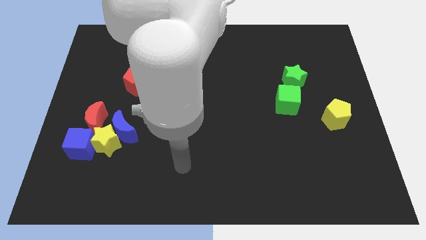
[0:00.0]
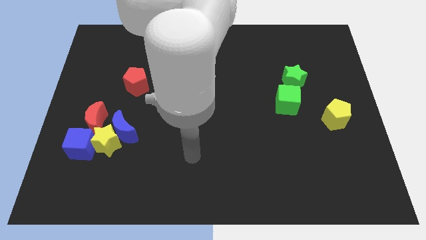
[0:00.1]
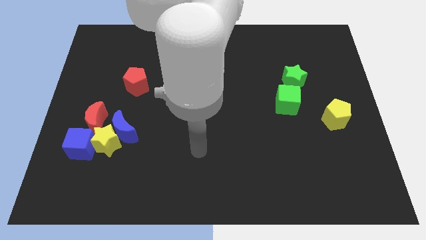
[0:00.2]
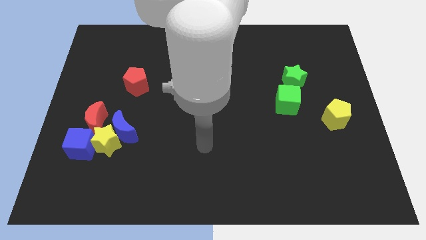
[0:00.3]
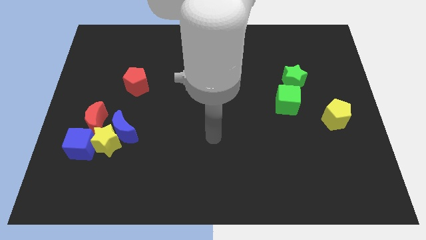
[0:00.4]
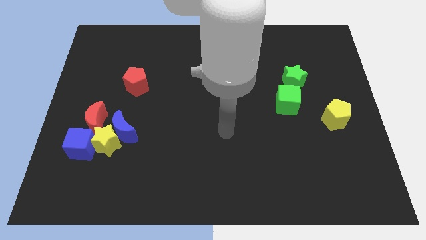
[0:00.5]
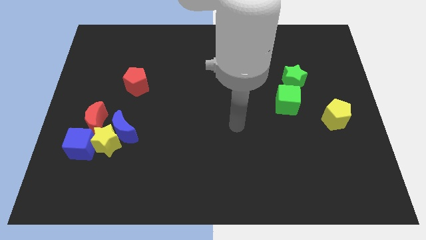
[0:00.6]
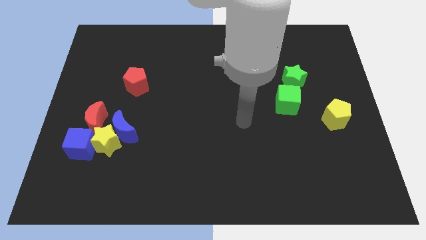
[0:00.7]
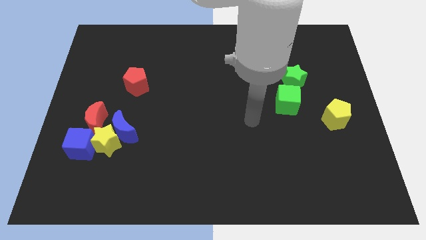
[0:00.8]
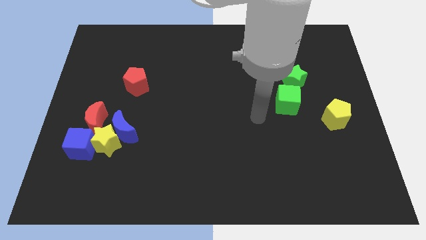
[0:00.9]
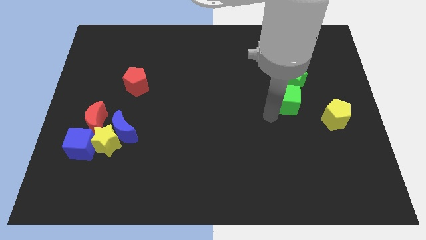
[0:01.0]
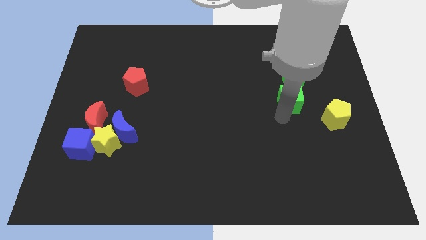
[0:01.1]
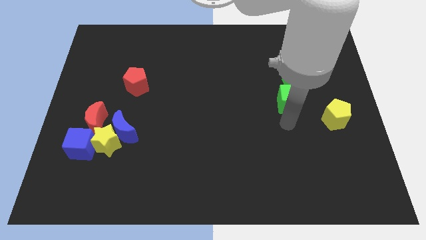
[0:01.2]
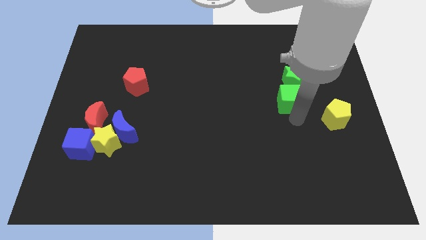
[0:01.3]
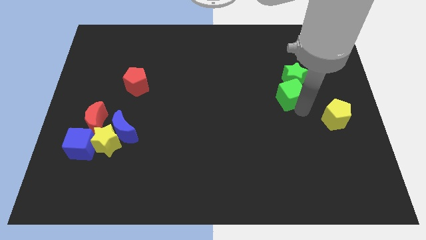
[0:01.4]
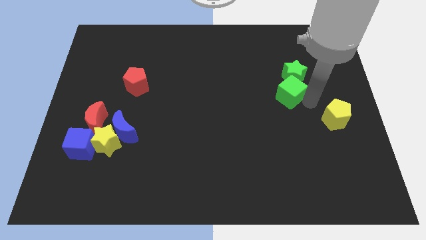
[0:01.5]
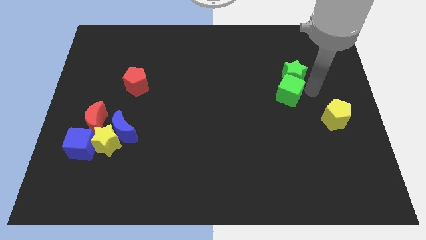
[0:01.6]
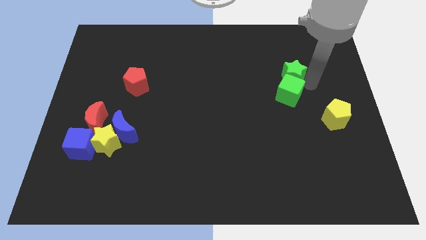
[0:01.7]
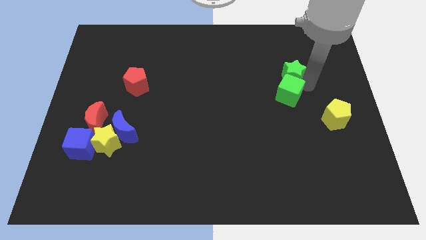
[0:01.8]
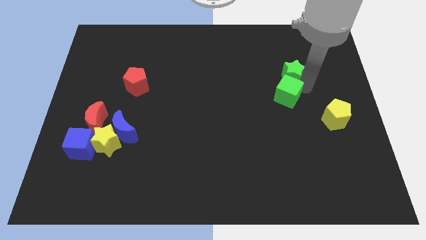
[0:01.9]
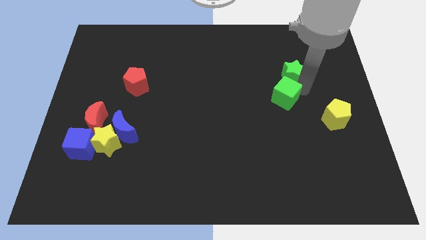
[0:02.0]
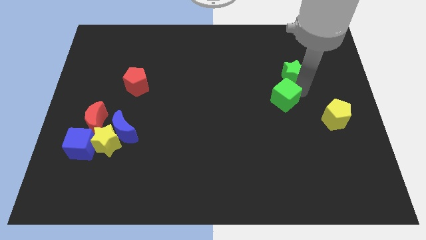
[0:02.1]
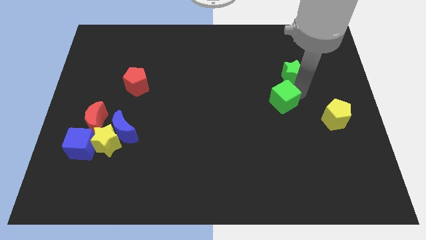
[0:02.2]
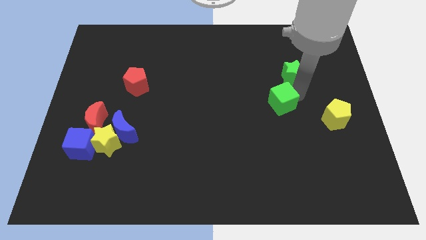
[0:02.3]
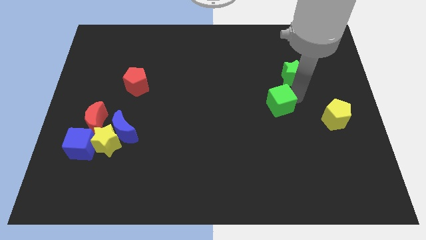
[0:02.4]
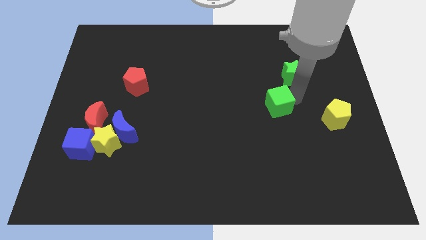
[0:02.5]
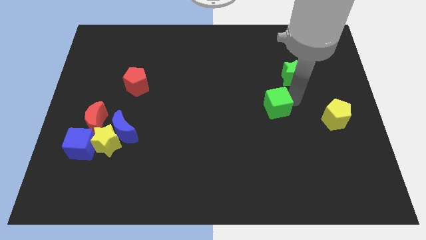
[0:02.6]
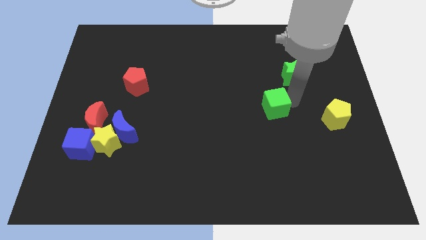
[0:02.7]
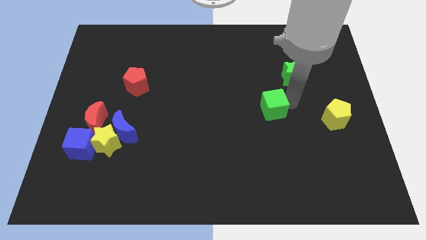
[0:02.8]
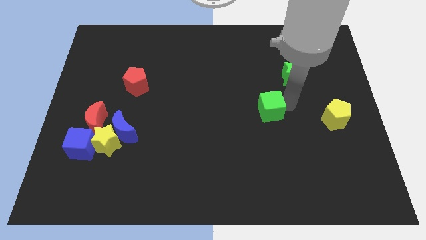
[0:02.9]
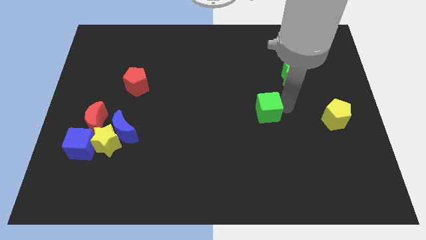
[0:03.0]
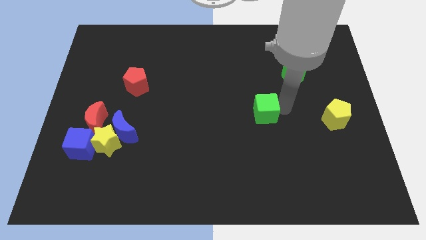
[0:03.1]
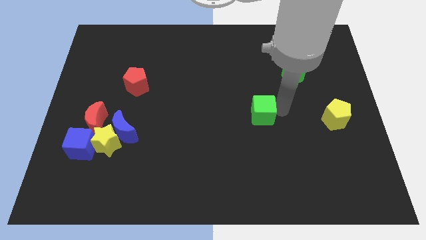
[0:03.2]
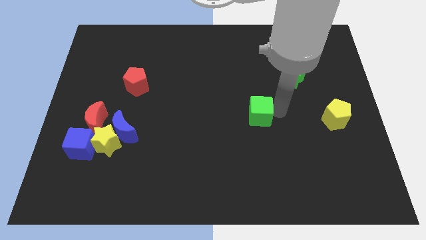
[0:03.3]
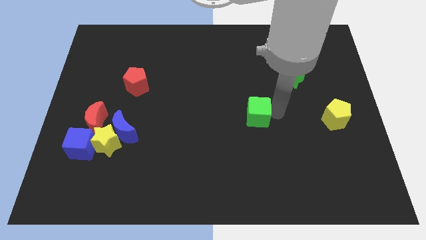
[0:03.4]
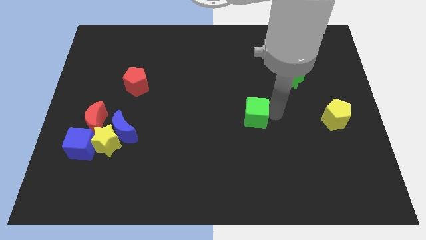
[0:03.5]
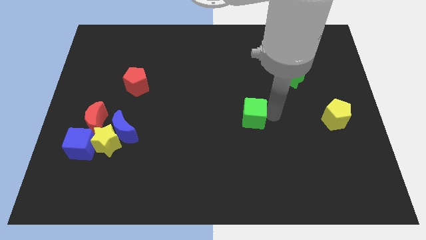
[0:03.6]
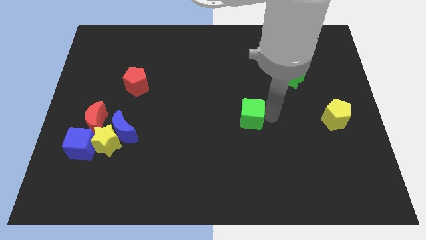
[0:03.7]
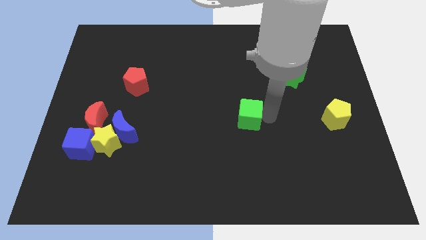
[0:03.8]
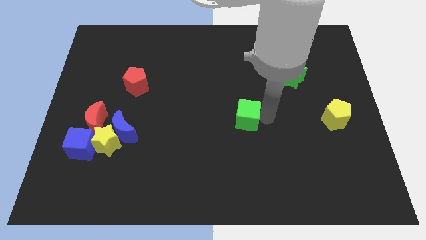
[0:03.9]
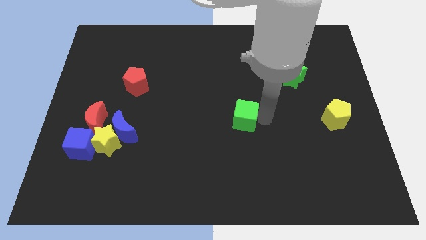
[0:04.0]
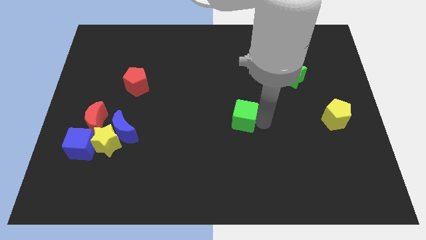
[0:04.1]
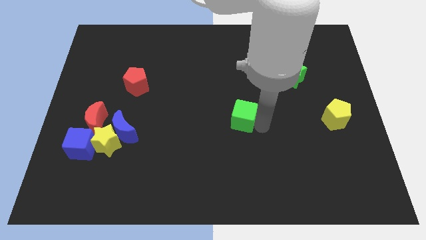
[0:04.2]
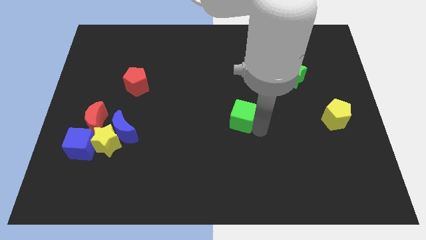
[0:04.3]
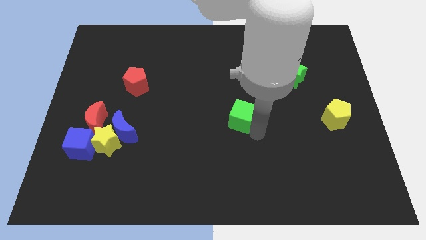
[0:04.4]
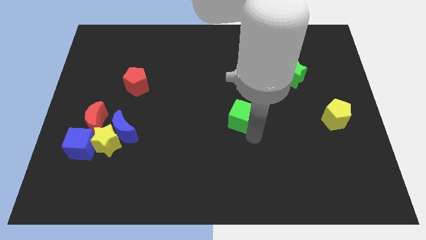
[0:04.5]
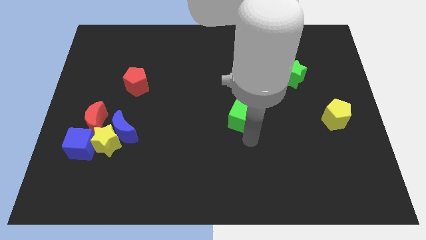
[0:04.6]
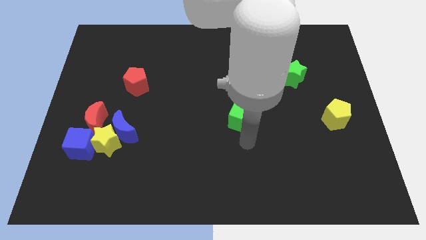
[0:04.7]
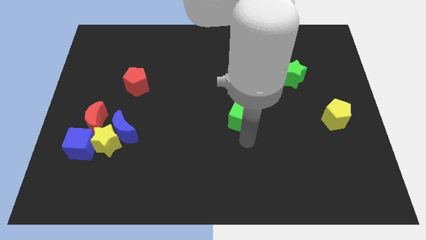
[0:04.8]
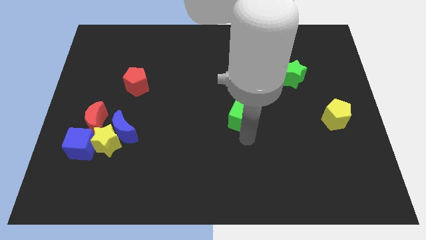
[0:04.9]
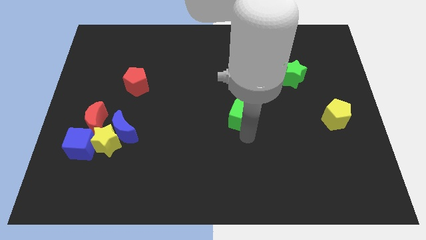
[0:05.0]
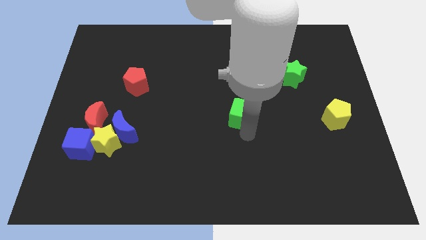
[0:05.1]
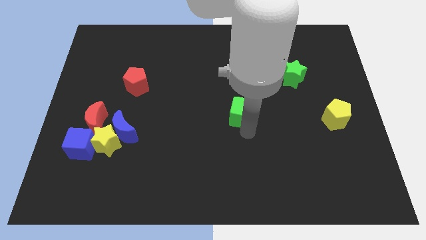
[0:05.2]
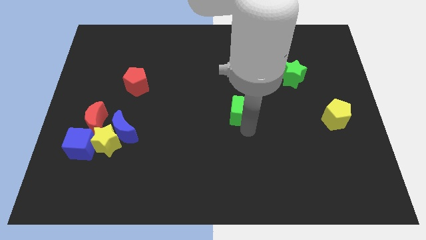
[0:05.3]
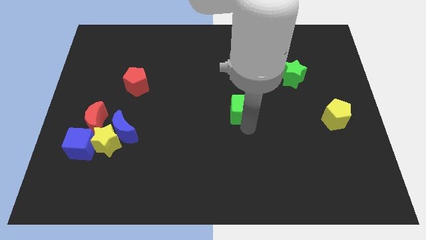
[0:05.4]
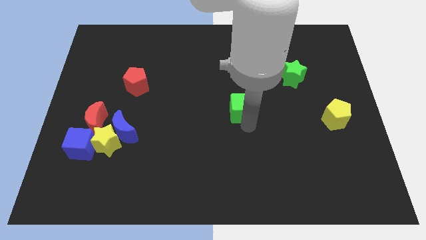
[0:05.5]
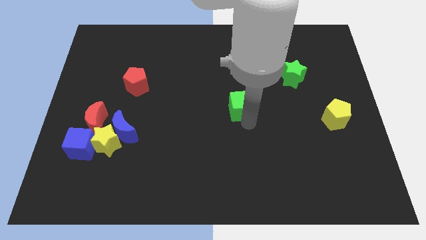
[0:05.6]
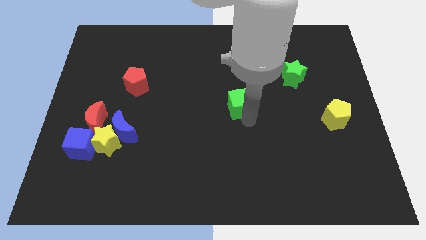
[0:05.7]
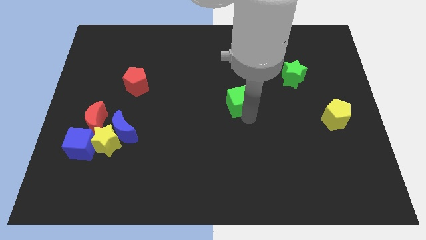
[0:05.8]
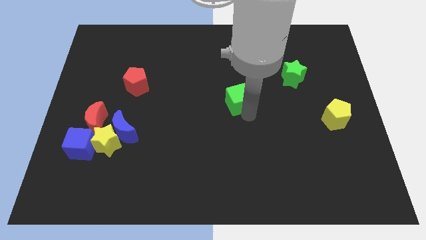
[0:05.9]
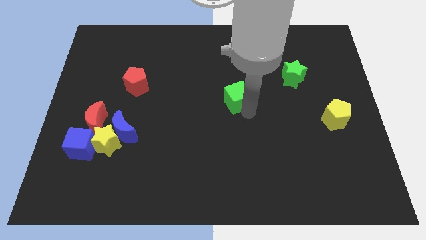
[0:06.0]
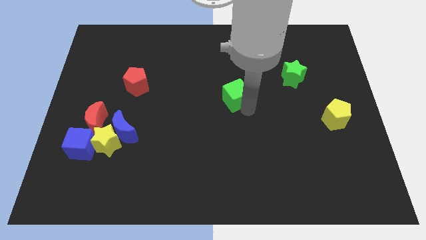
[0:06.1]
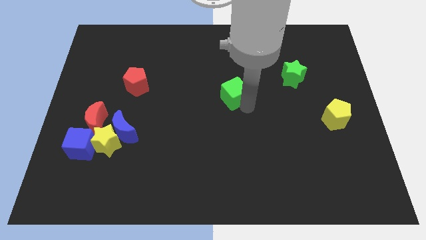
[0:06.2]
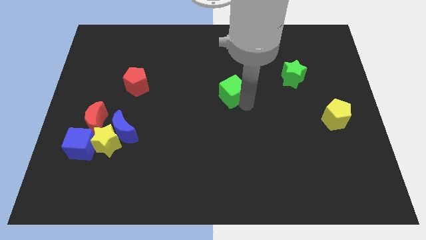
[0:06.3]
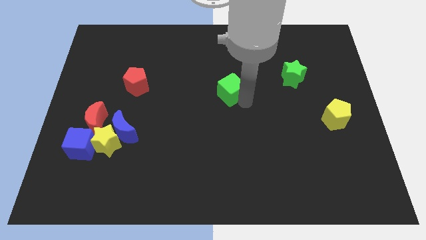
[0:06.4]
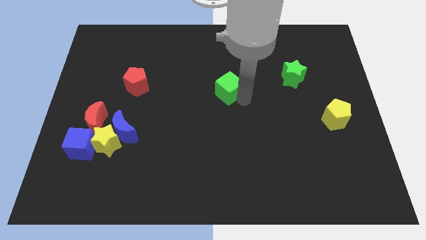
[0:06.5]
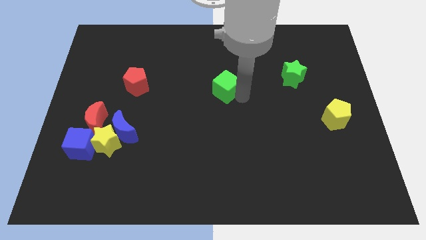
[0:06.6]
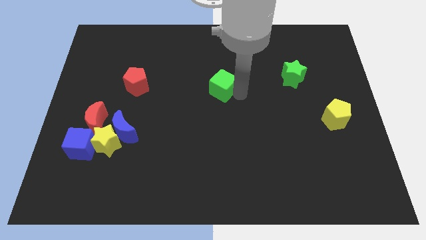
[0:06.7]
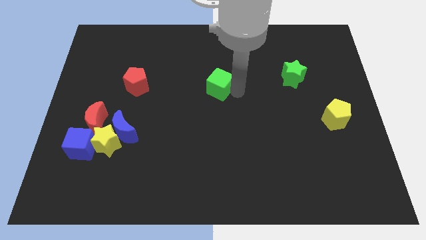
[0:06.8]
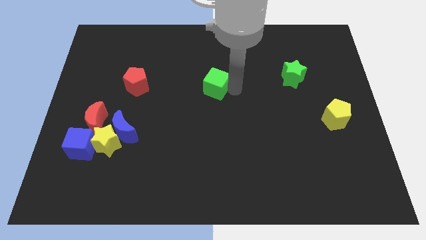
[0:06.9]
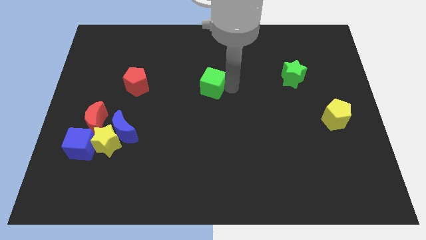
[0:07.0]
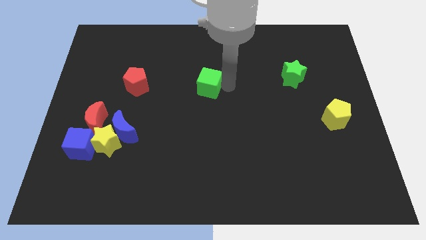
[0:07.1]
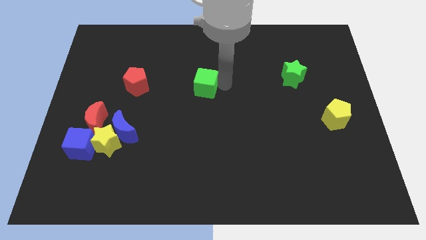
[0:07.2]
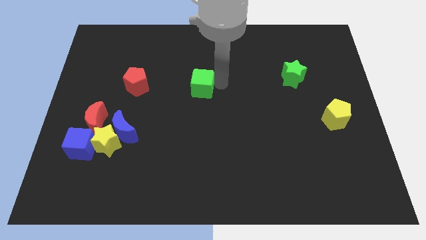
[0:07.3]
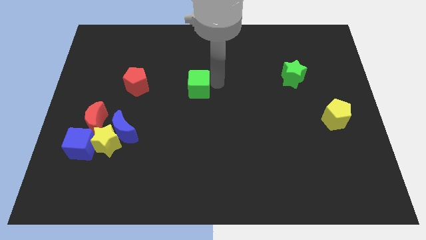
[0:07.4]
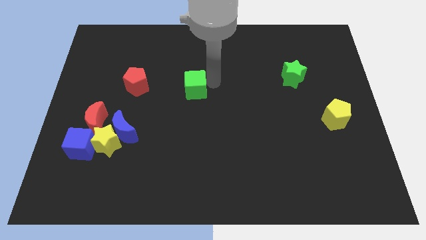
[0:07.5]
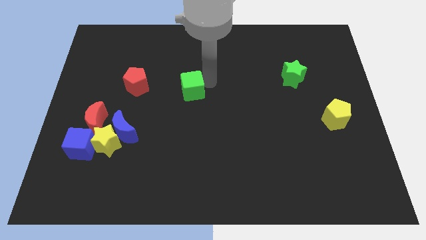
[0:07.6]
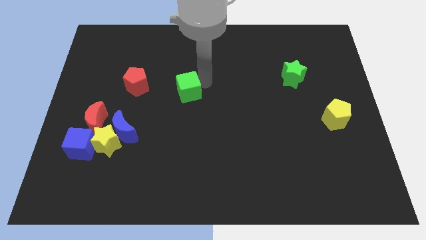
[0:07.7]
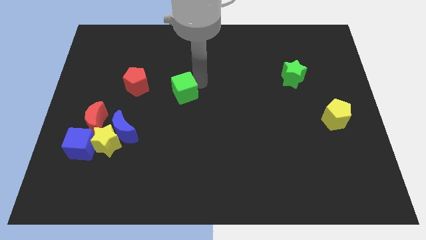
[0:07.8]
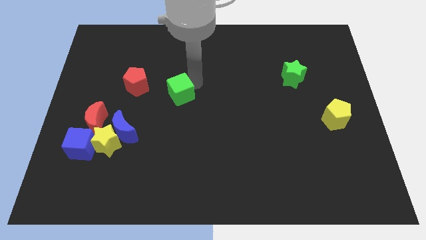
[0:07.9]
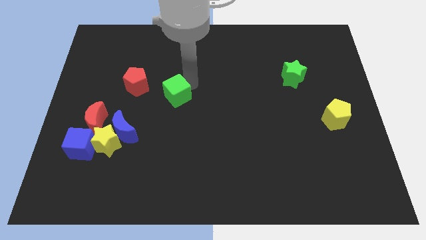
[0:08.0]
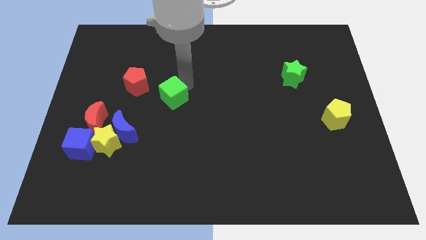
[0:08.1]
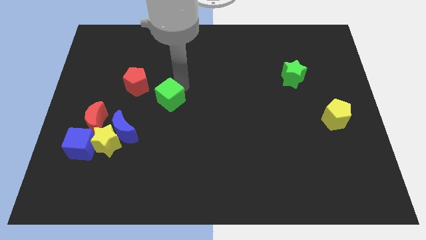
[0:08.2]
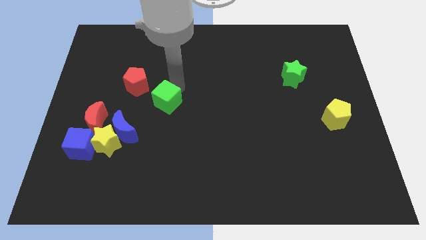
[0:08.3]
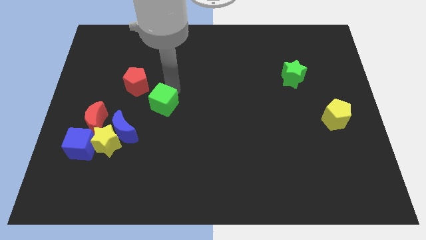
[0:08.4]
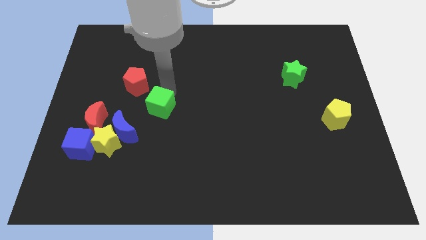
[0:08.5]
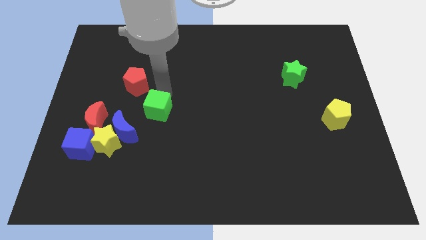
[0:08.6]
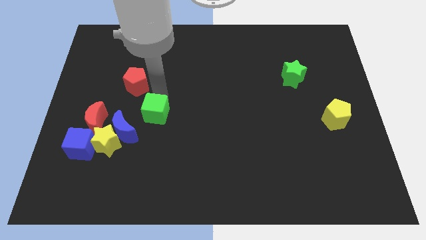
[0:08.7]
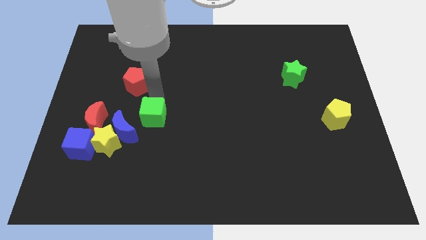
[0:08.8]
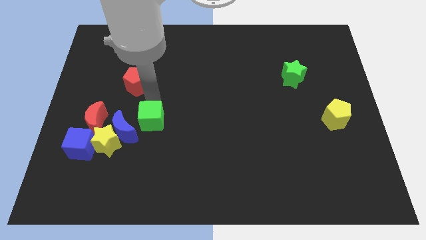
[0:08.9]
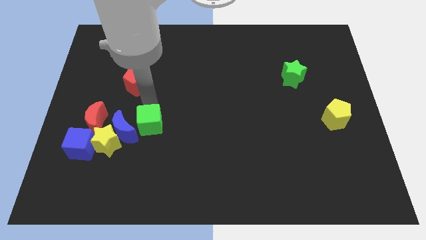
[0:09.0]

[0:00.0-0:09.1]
slide the green cube towards the blue moon
